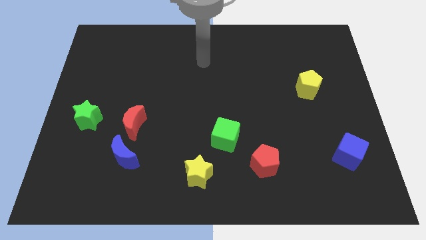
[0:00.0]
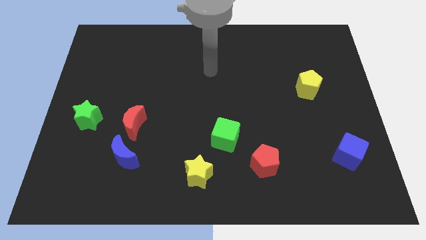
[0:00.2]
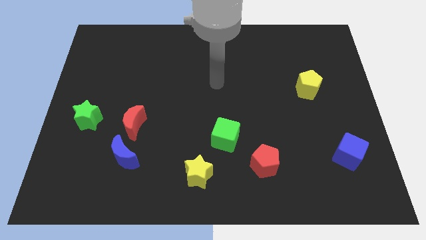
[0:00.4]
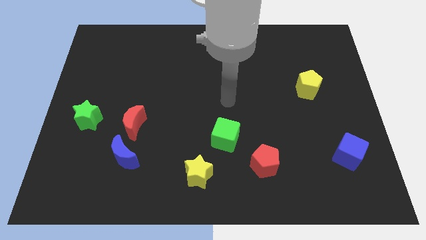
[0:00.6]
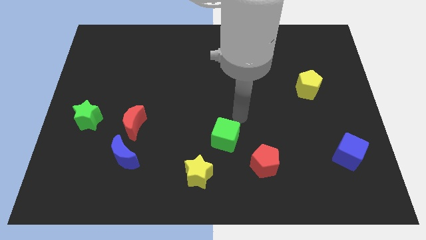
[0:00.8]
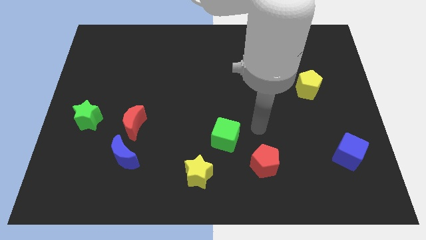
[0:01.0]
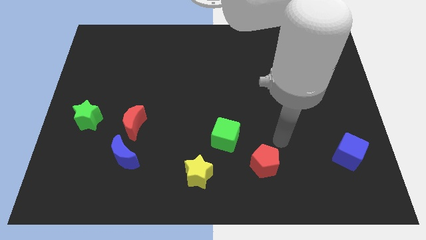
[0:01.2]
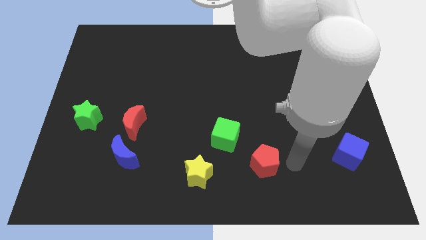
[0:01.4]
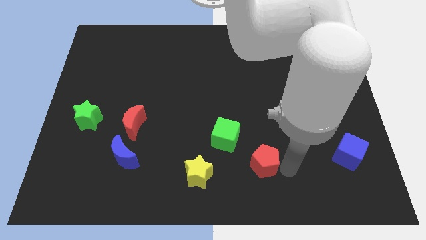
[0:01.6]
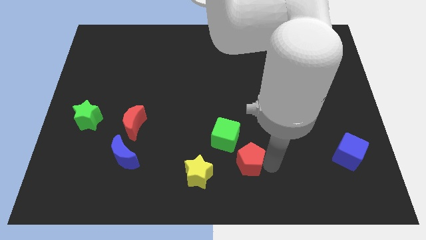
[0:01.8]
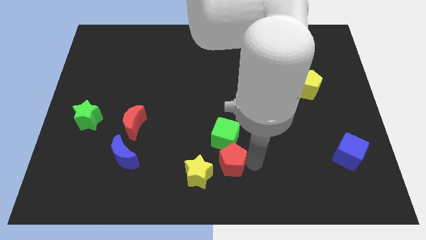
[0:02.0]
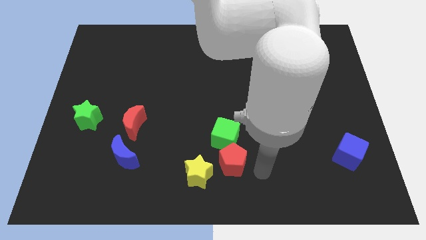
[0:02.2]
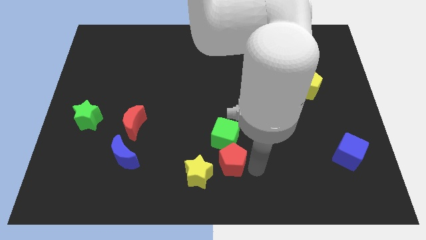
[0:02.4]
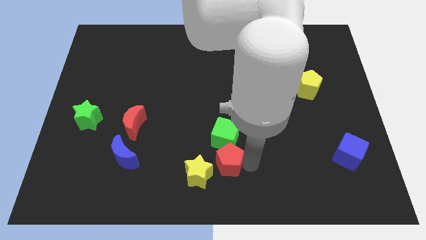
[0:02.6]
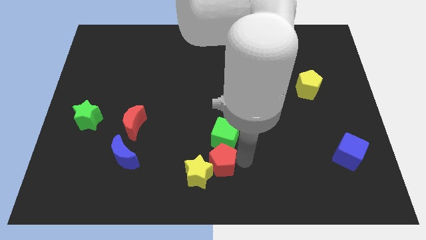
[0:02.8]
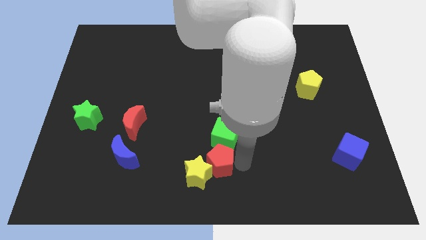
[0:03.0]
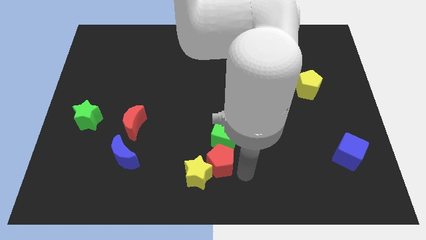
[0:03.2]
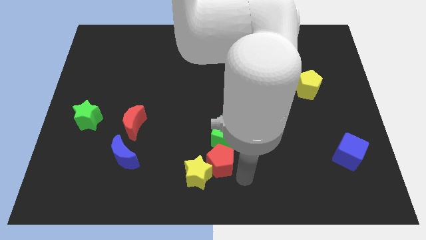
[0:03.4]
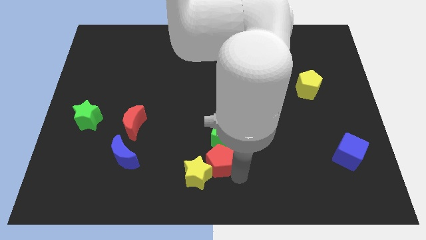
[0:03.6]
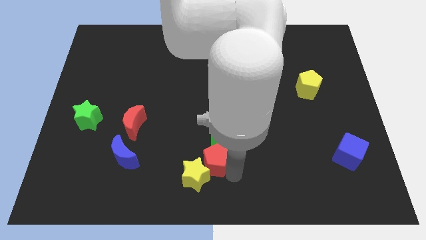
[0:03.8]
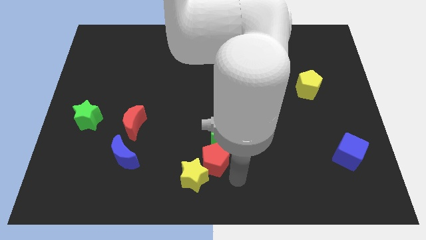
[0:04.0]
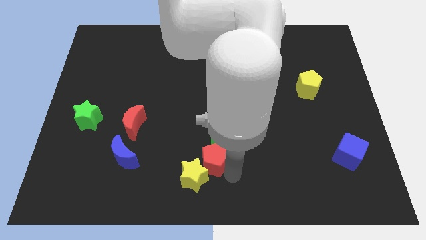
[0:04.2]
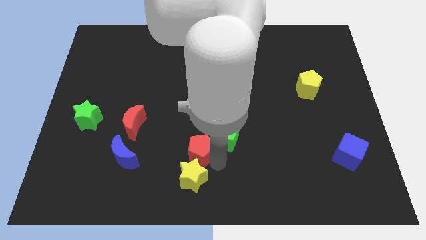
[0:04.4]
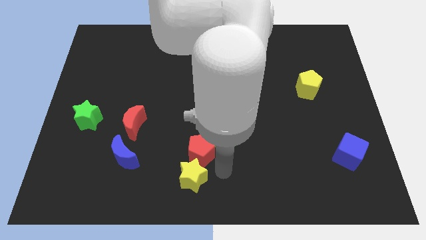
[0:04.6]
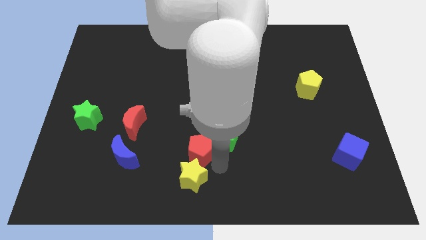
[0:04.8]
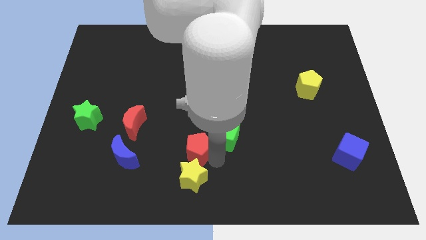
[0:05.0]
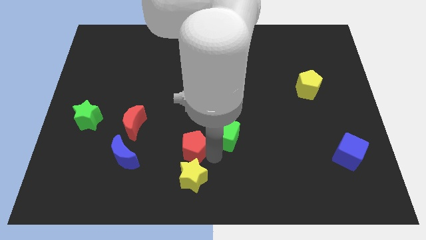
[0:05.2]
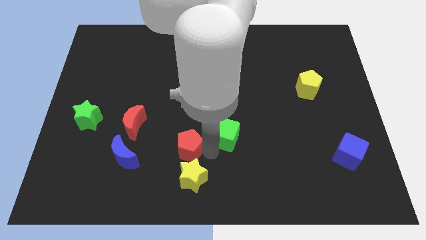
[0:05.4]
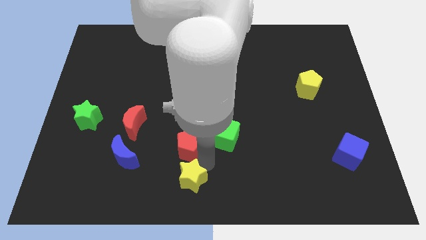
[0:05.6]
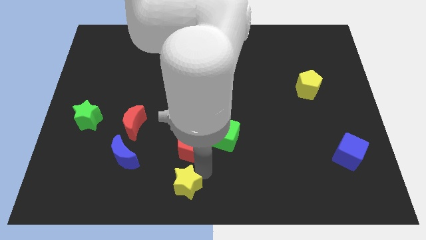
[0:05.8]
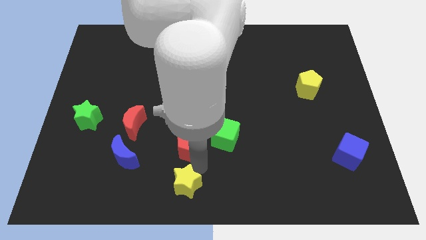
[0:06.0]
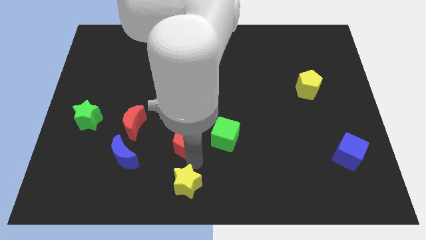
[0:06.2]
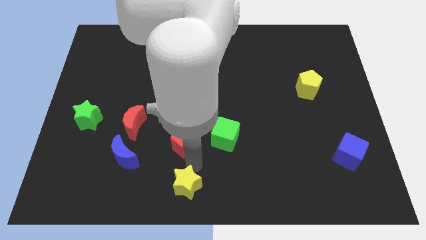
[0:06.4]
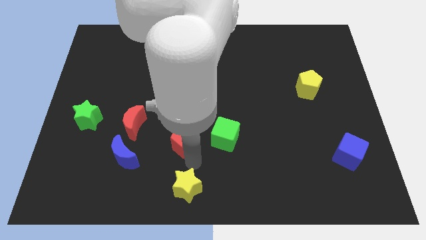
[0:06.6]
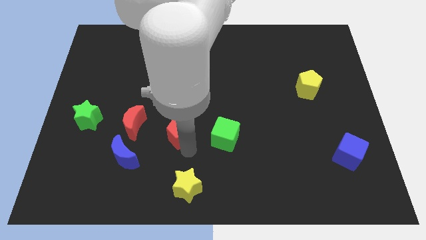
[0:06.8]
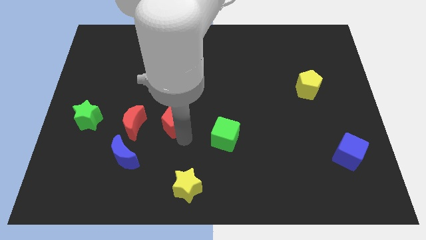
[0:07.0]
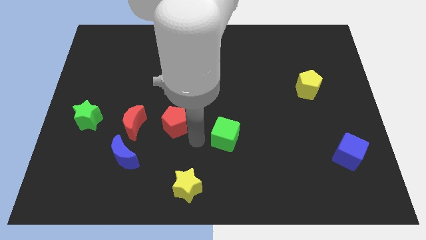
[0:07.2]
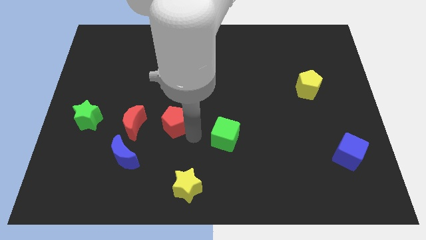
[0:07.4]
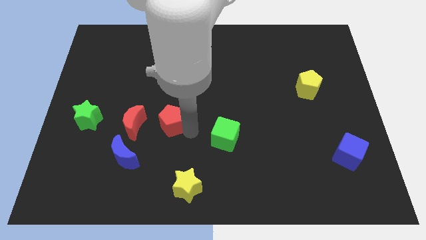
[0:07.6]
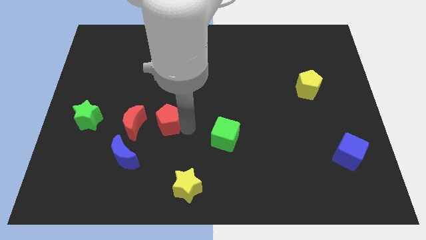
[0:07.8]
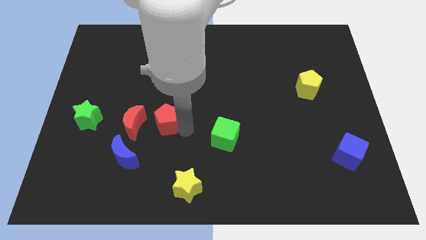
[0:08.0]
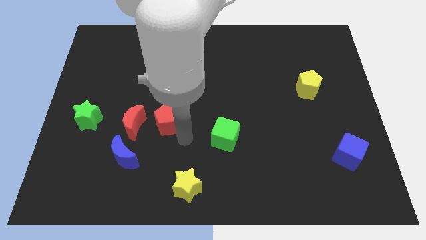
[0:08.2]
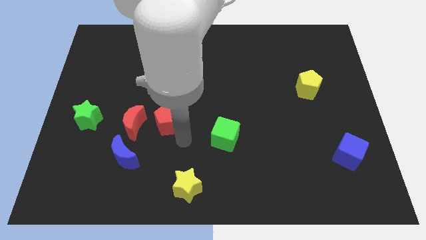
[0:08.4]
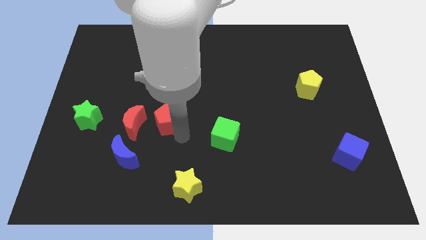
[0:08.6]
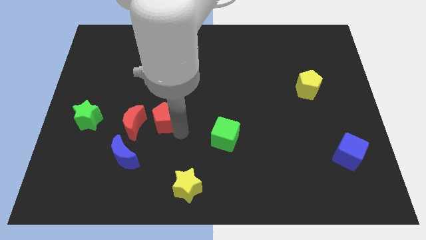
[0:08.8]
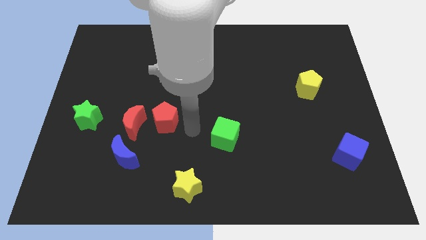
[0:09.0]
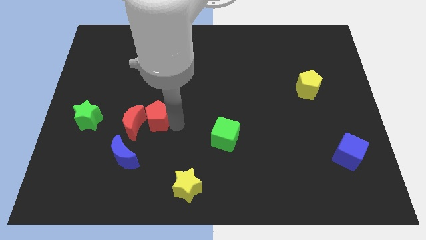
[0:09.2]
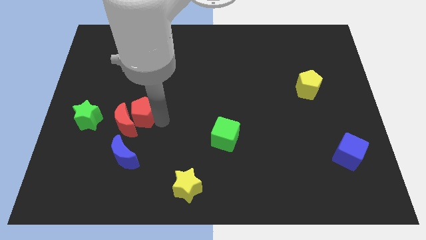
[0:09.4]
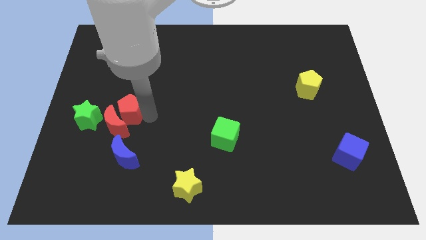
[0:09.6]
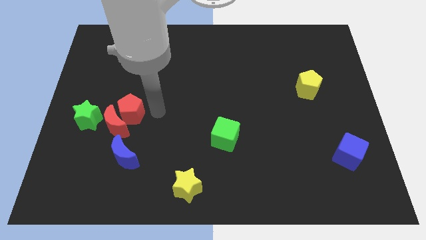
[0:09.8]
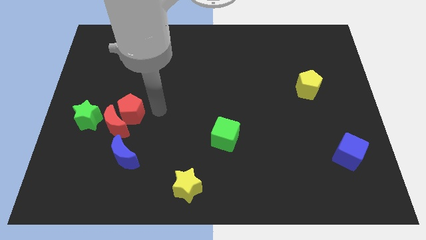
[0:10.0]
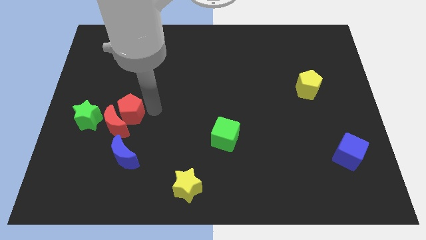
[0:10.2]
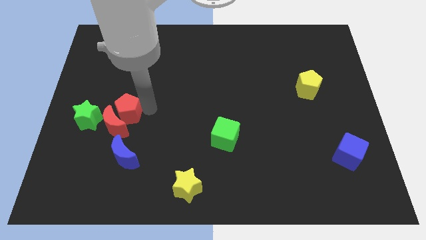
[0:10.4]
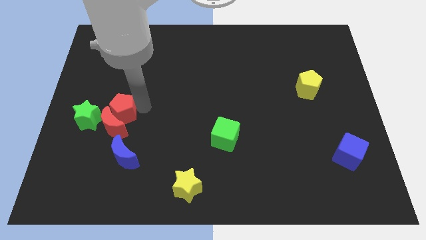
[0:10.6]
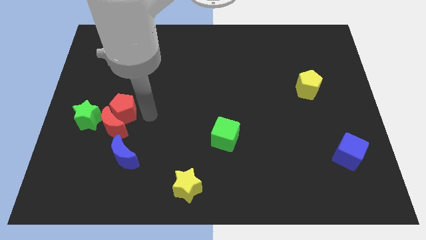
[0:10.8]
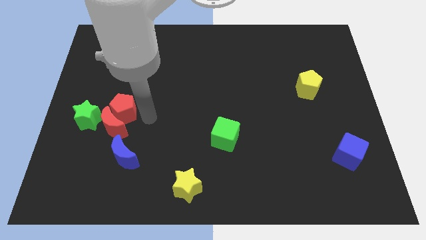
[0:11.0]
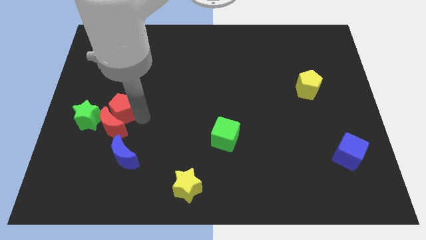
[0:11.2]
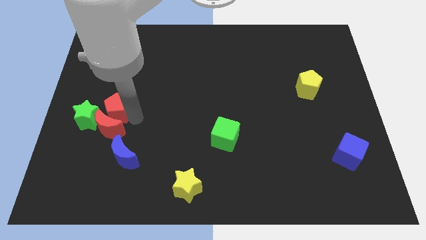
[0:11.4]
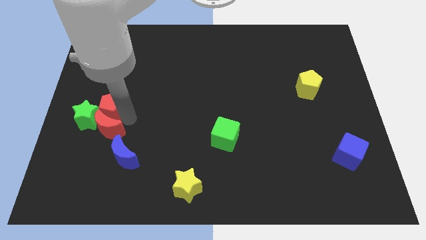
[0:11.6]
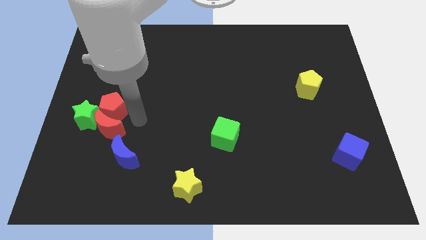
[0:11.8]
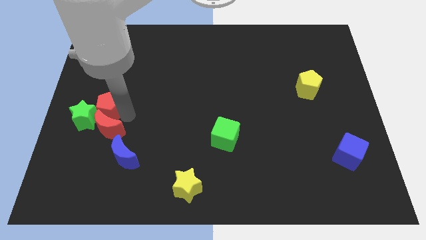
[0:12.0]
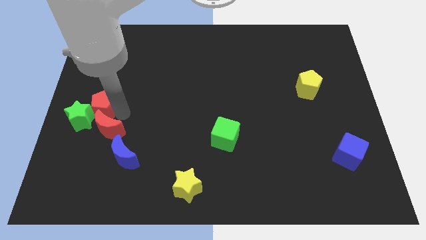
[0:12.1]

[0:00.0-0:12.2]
move the red pentagon to the center left
